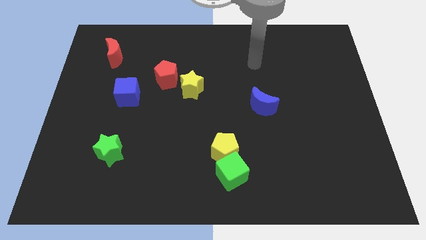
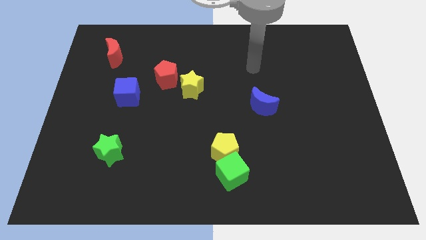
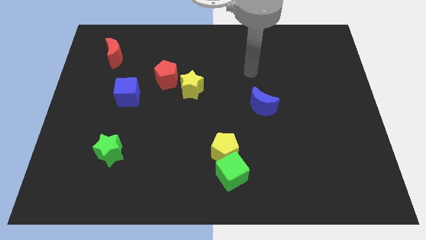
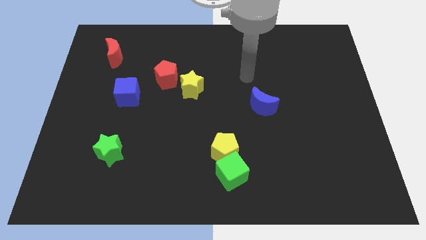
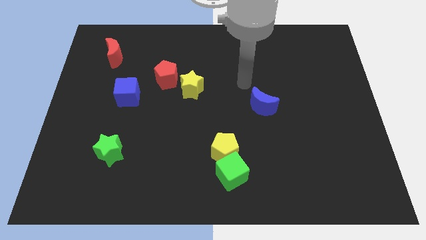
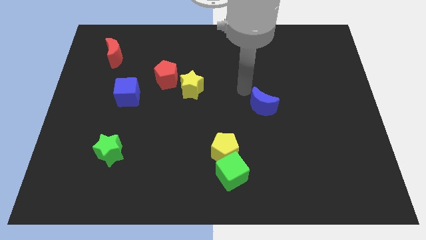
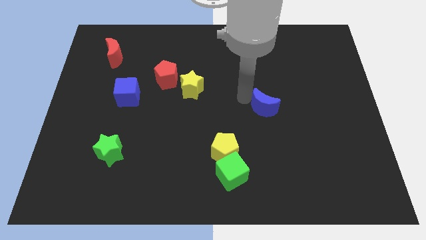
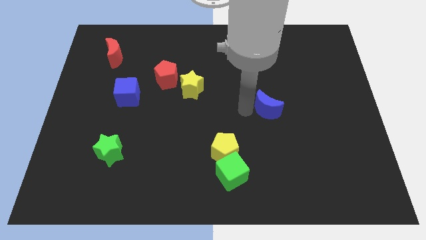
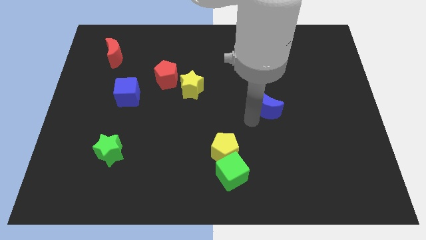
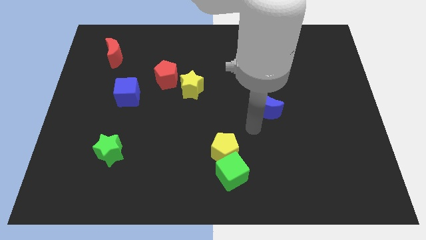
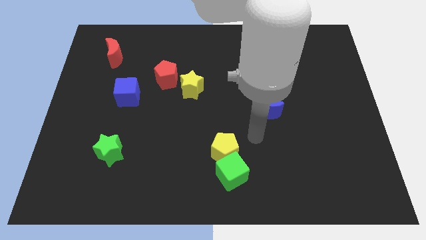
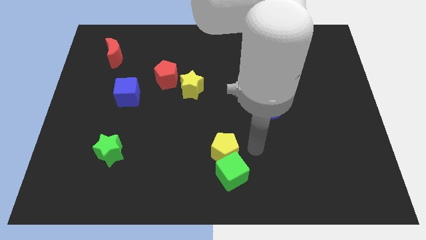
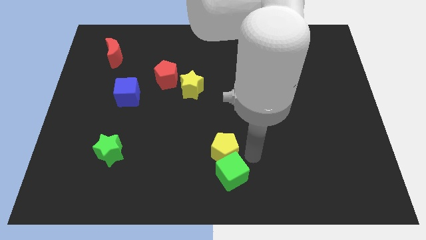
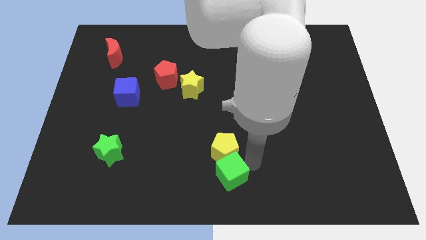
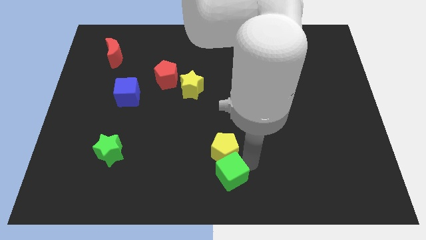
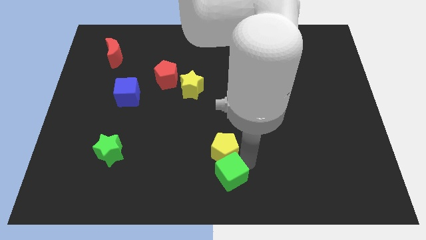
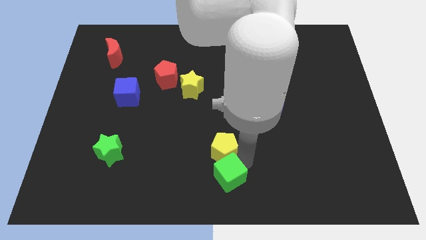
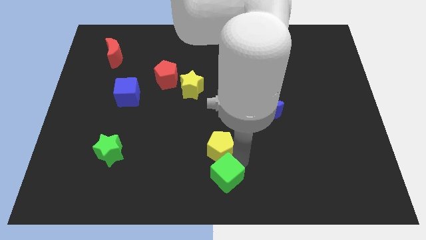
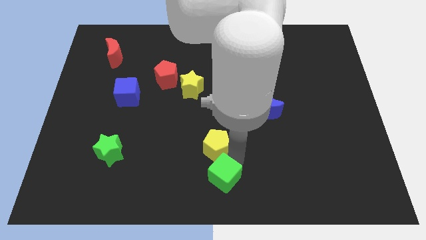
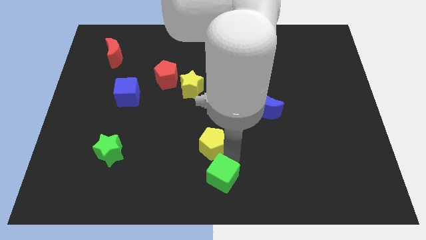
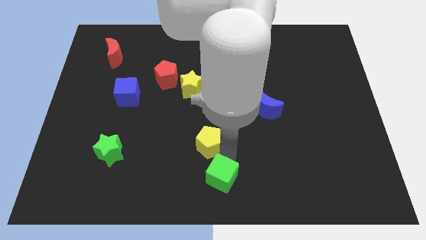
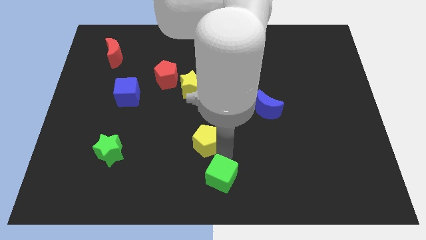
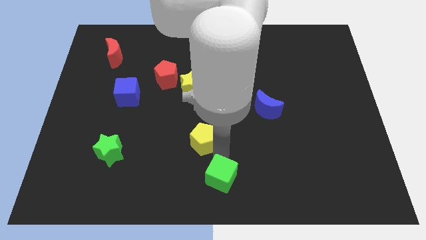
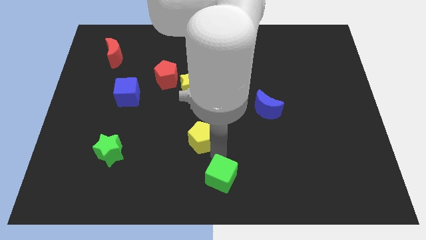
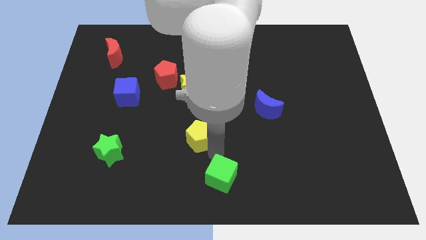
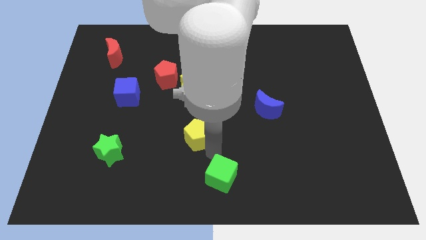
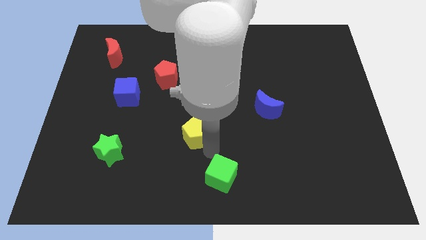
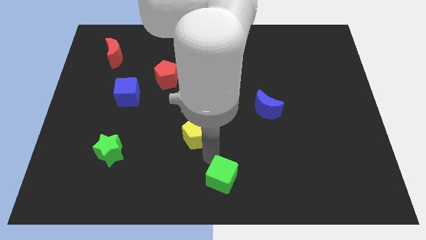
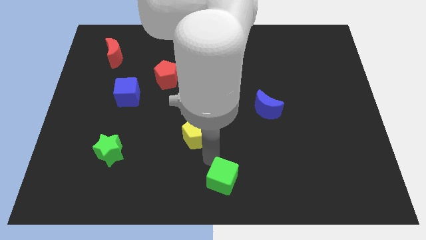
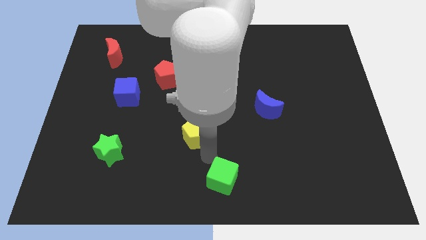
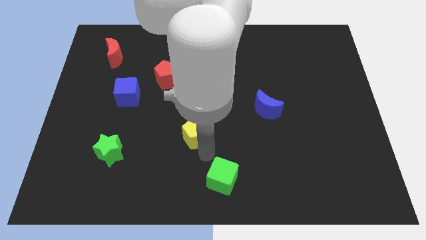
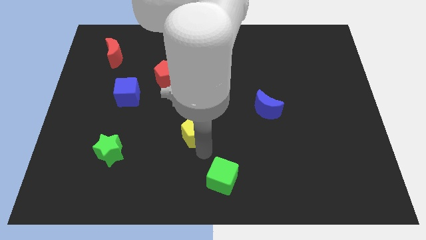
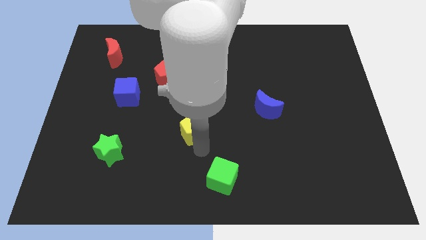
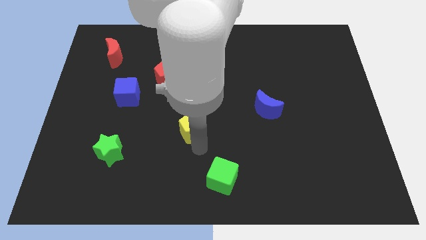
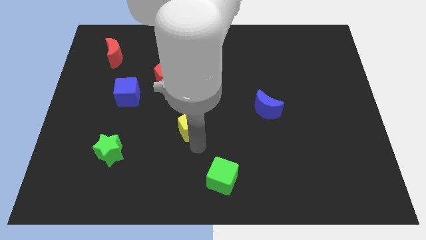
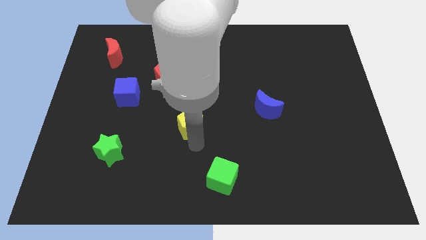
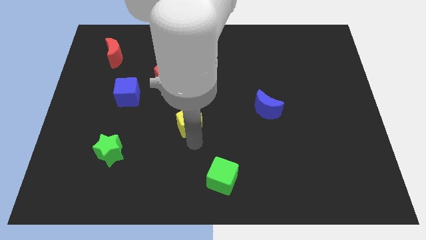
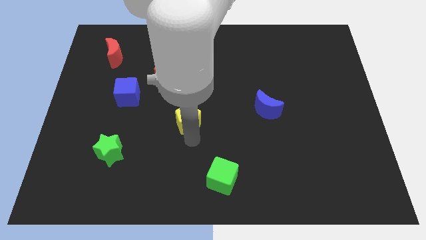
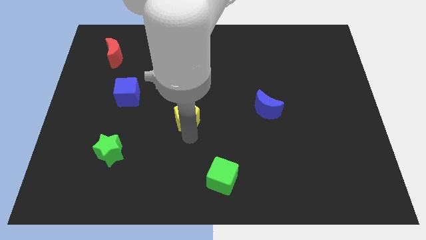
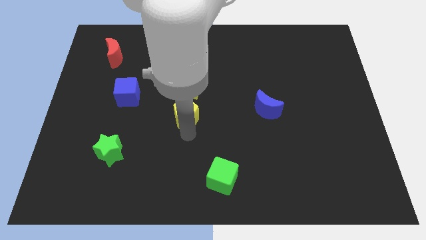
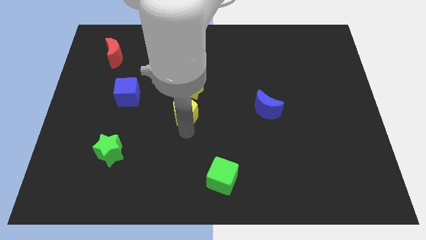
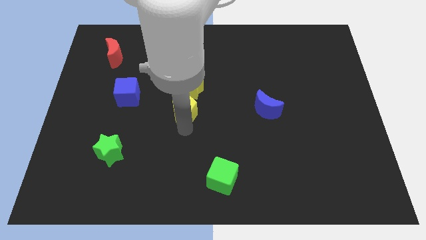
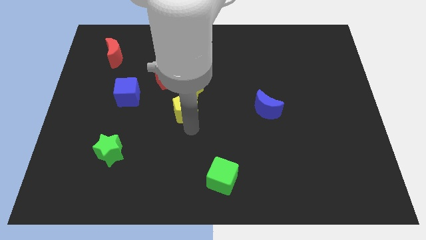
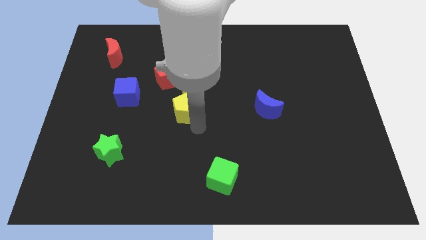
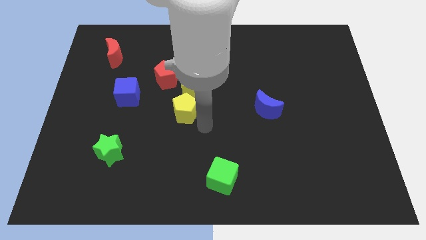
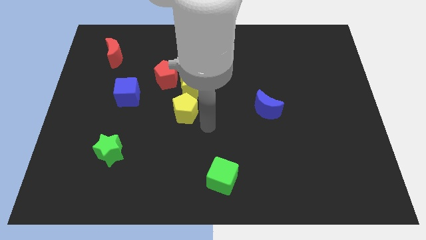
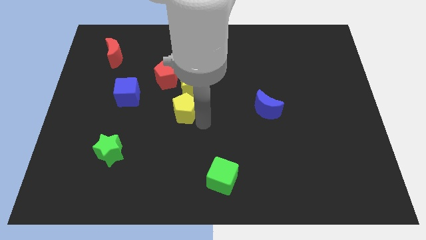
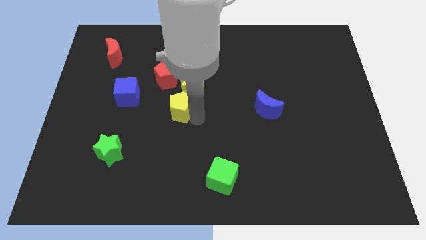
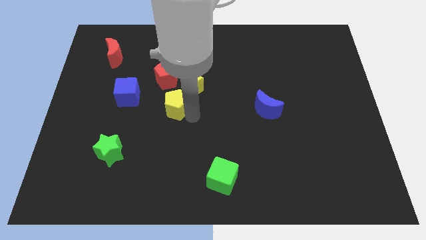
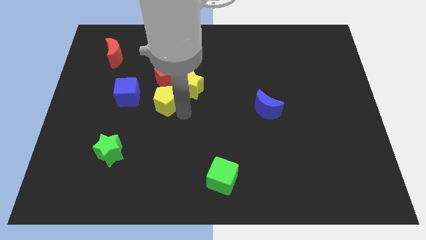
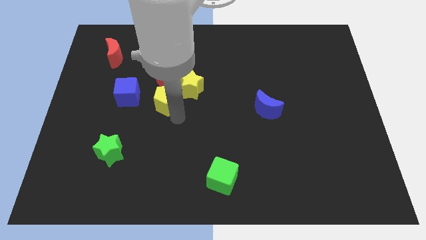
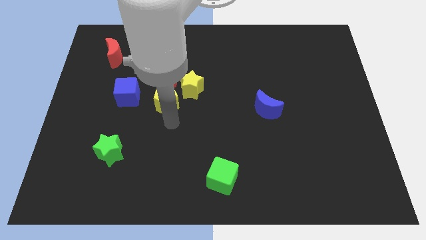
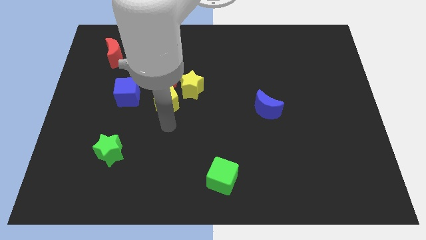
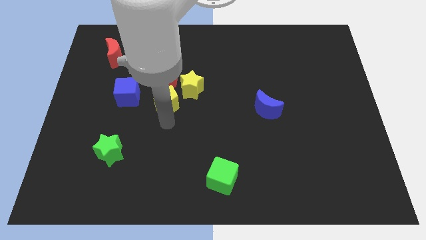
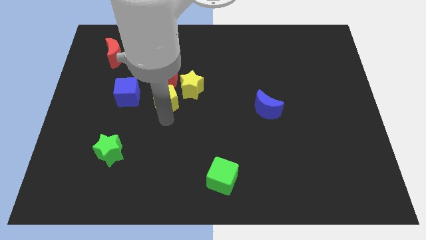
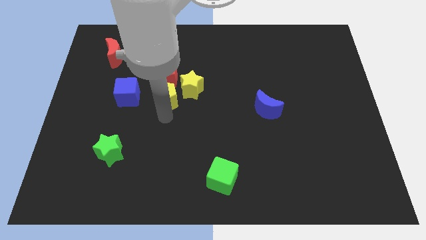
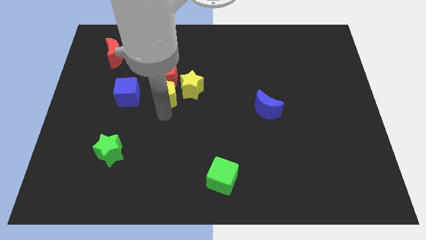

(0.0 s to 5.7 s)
put the yellow pentagon next to the red pentagon

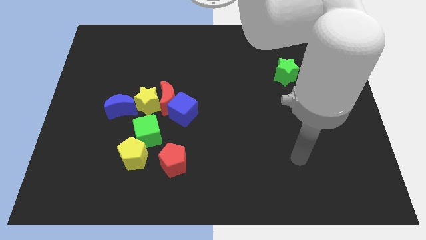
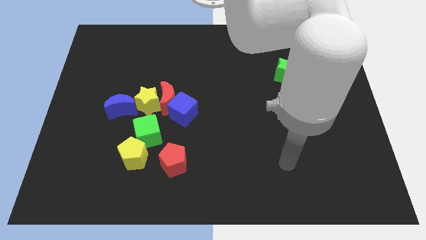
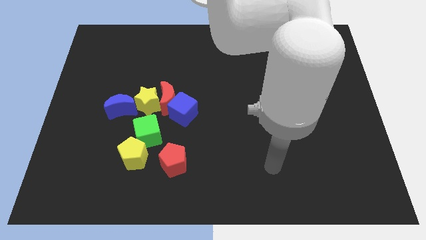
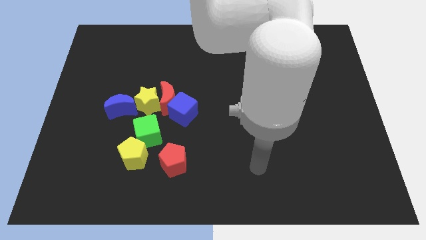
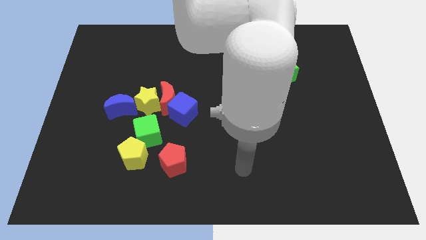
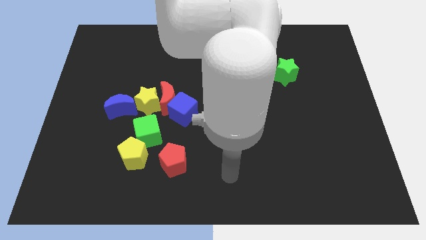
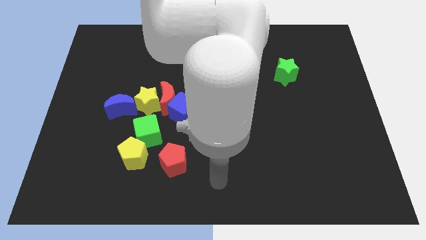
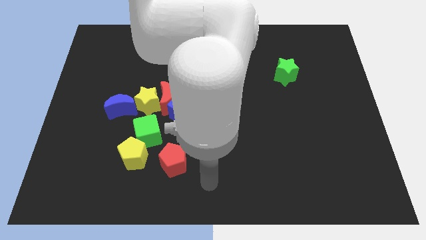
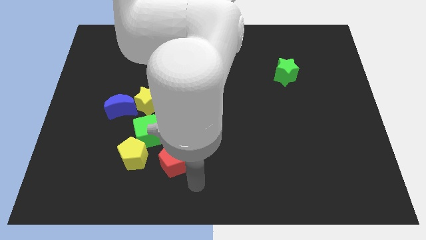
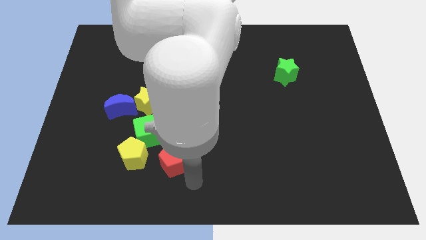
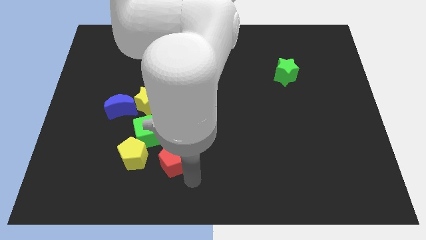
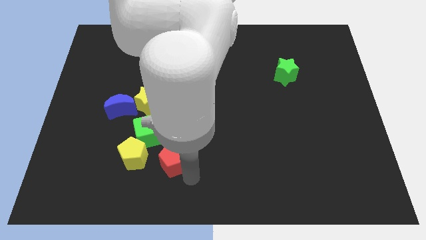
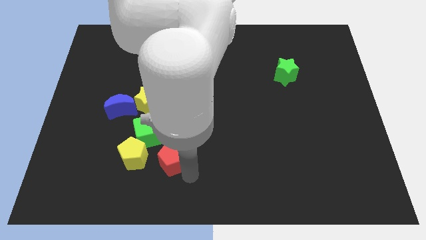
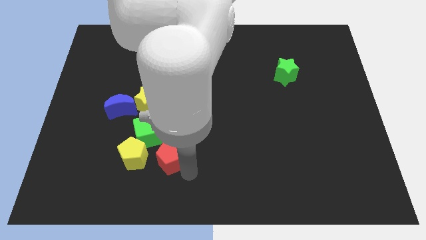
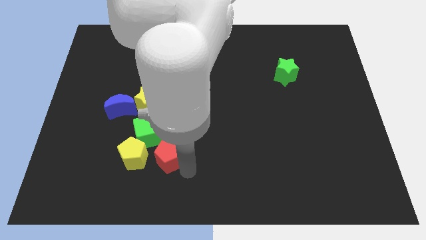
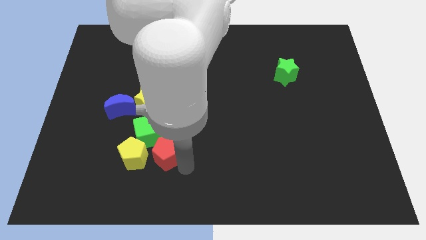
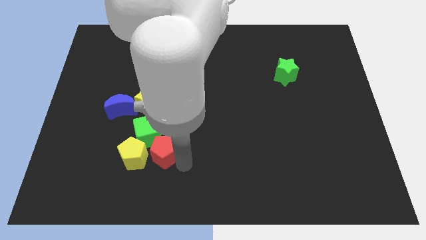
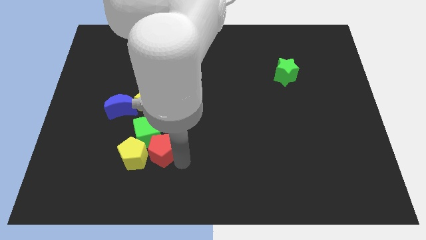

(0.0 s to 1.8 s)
move the red pentagon close to the green cube

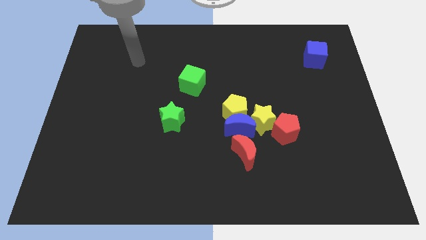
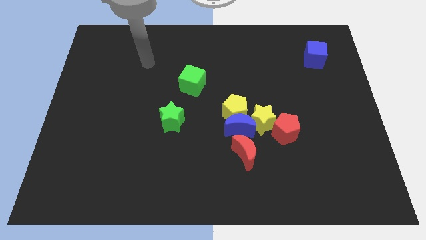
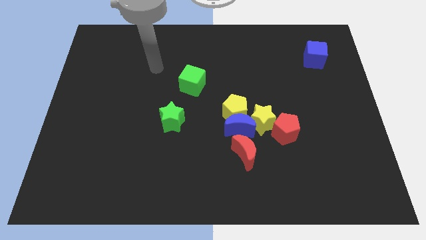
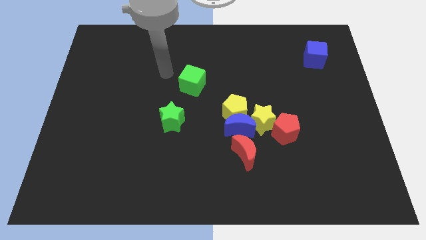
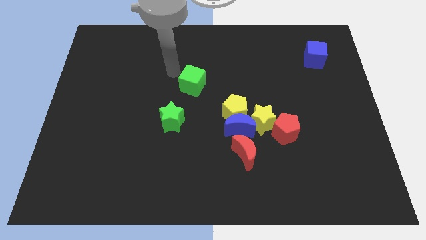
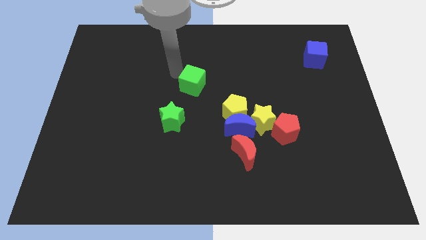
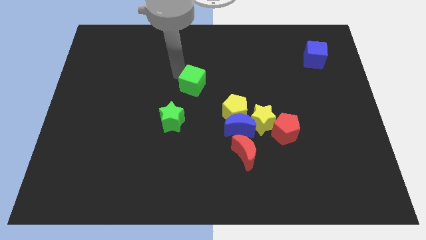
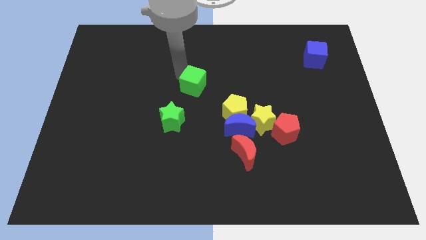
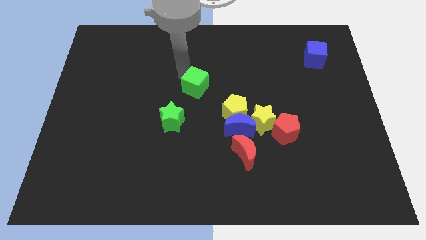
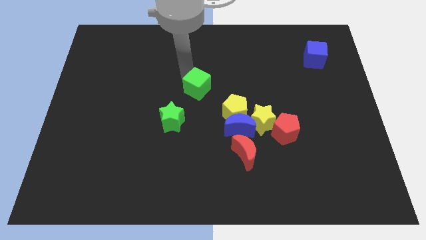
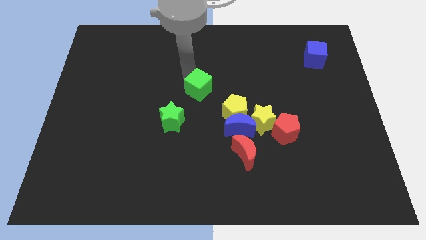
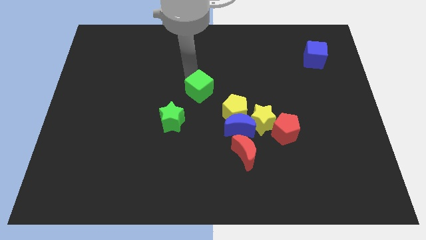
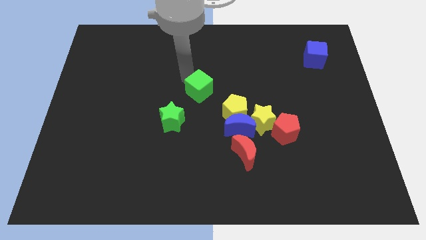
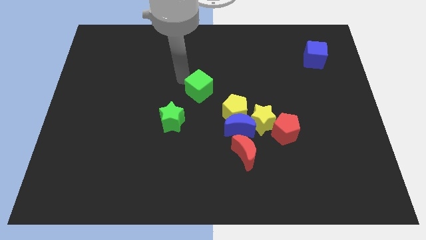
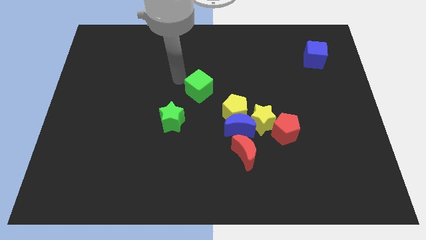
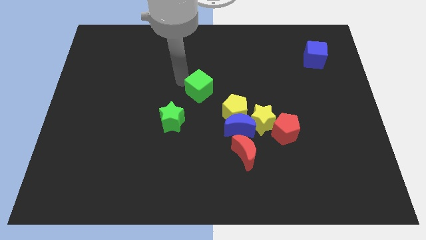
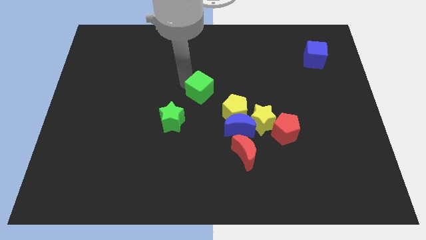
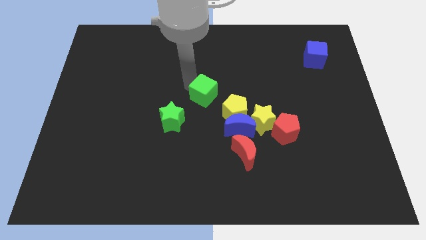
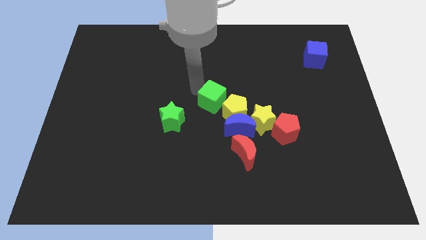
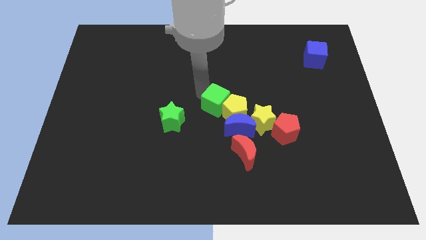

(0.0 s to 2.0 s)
slide the green cube close to the yellow pentagon
